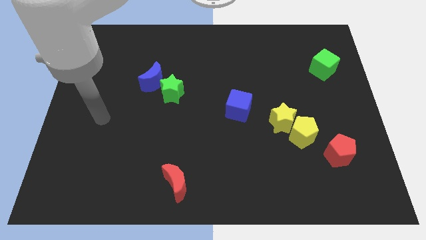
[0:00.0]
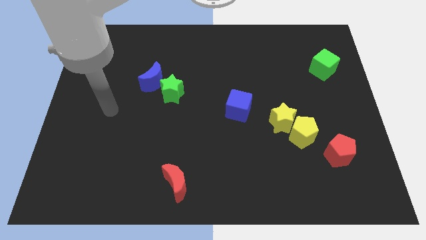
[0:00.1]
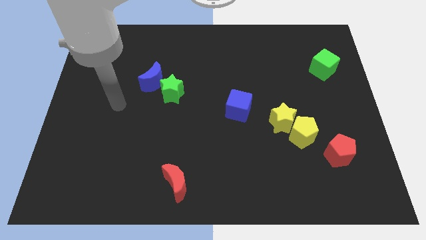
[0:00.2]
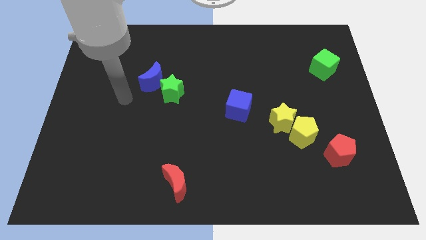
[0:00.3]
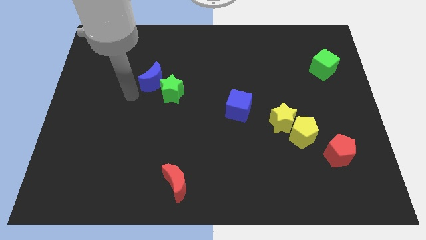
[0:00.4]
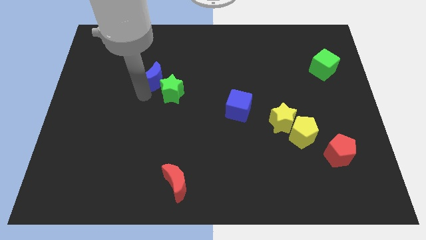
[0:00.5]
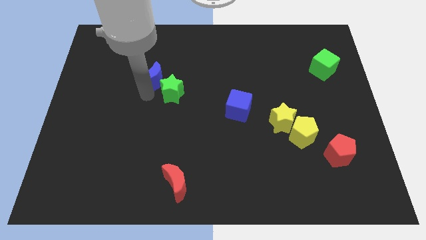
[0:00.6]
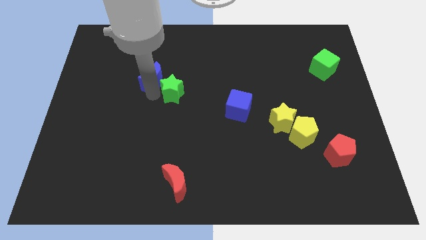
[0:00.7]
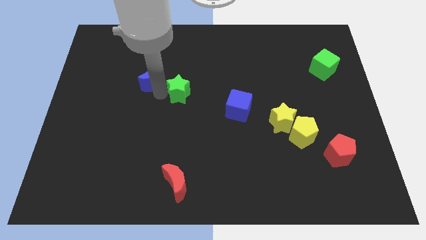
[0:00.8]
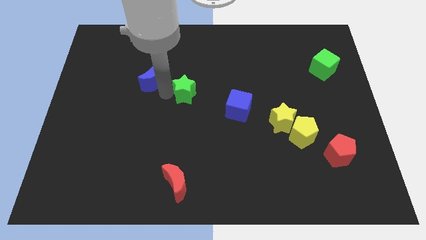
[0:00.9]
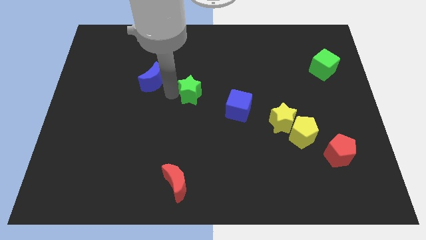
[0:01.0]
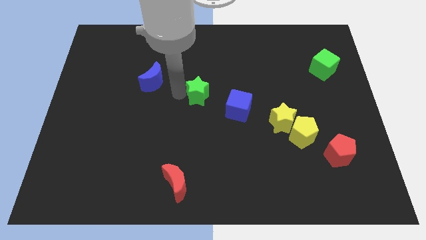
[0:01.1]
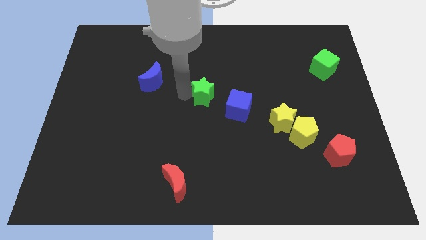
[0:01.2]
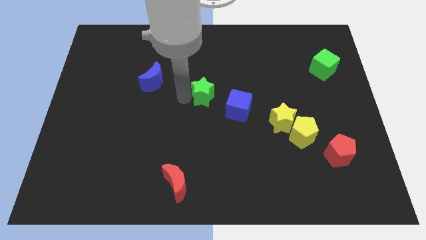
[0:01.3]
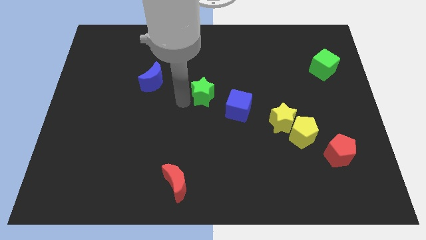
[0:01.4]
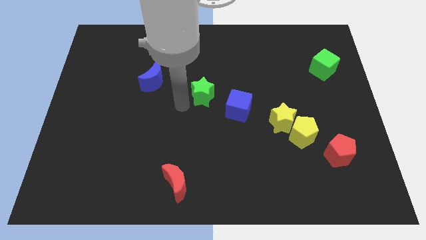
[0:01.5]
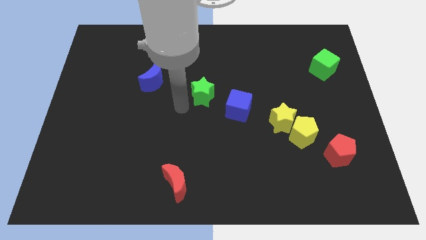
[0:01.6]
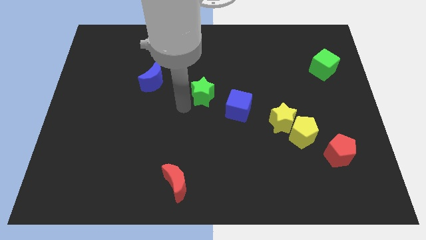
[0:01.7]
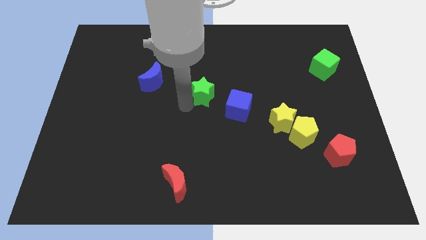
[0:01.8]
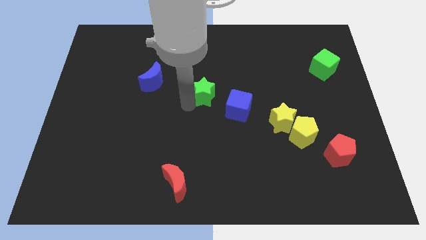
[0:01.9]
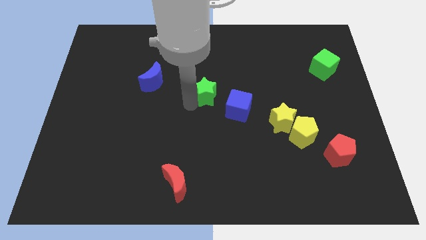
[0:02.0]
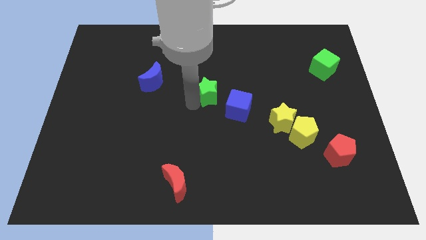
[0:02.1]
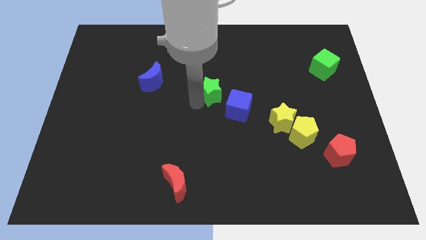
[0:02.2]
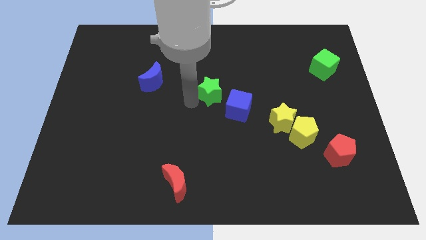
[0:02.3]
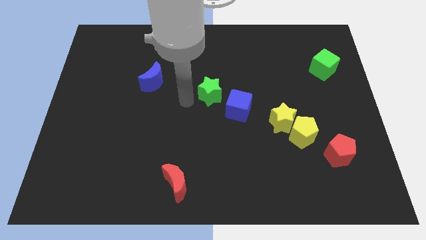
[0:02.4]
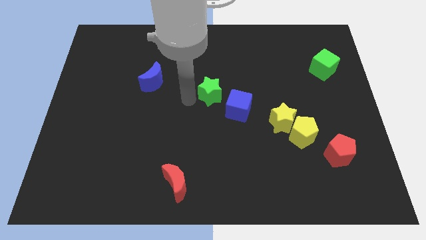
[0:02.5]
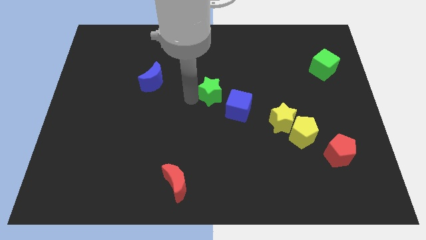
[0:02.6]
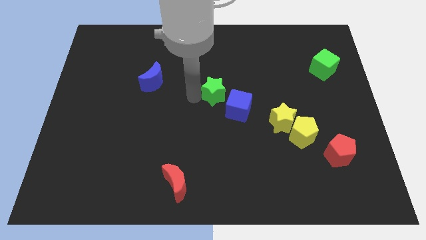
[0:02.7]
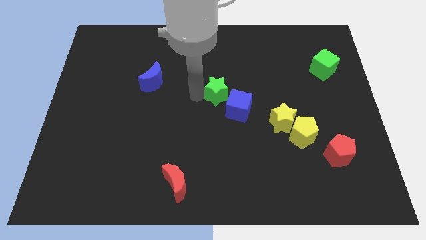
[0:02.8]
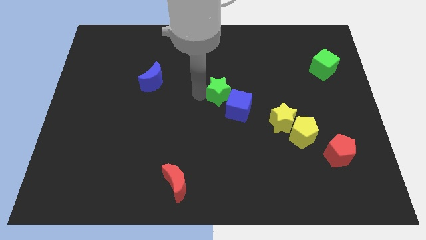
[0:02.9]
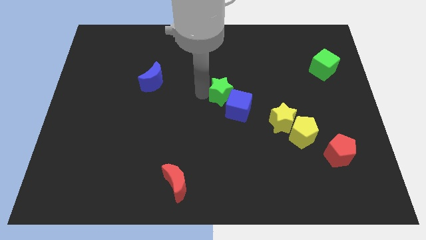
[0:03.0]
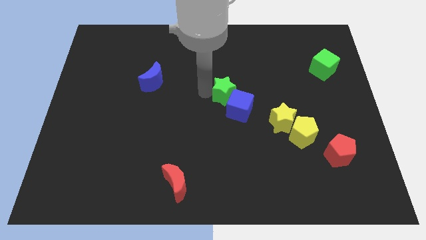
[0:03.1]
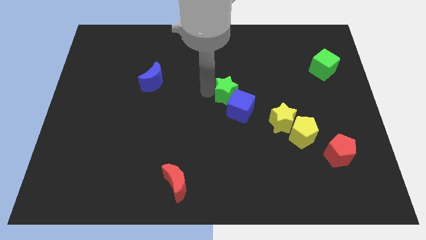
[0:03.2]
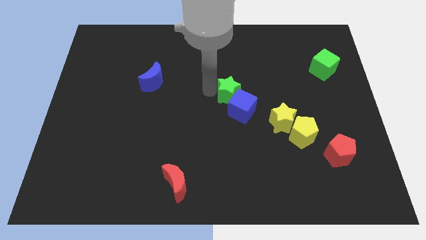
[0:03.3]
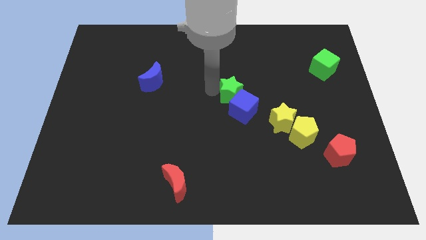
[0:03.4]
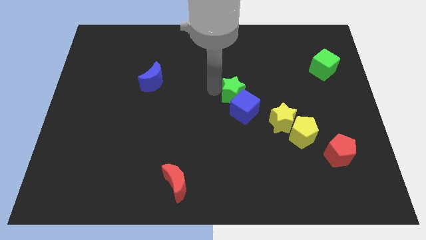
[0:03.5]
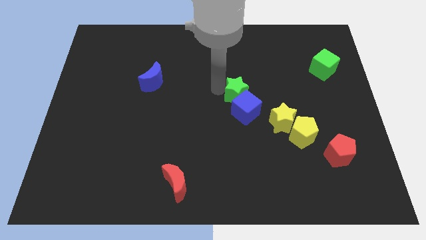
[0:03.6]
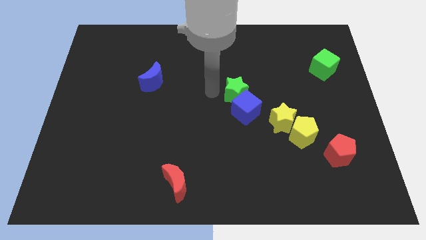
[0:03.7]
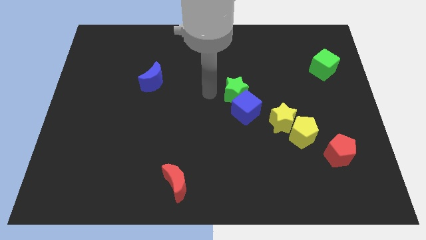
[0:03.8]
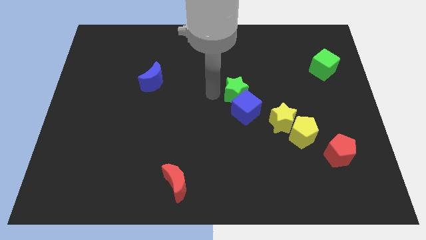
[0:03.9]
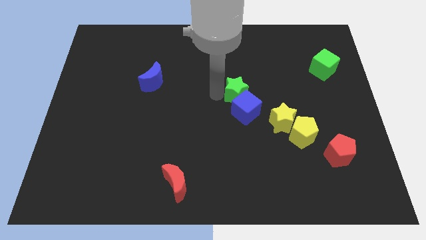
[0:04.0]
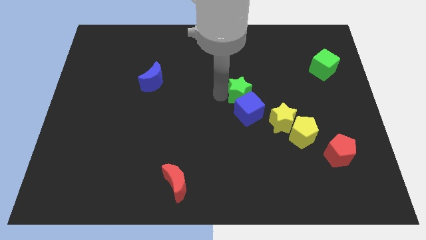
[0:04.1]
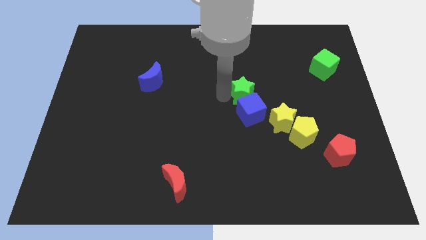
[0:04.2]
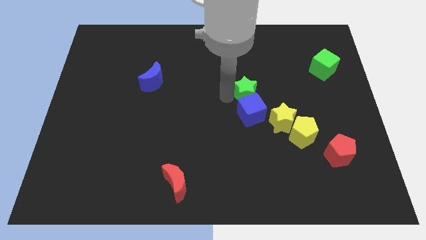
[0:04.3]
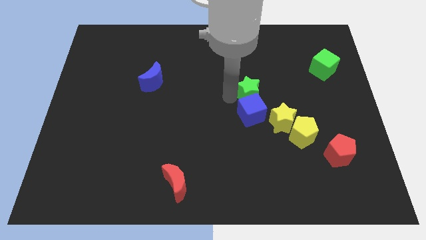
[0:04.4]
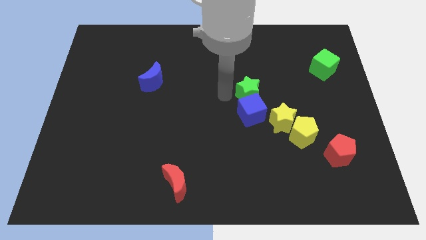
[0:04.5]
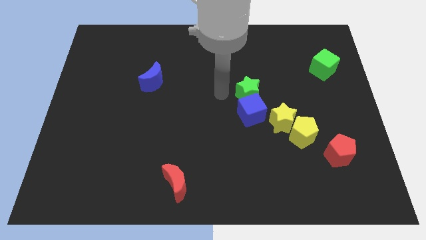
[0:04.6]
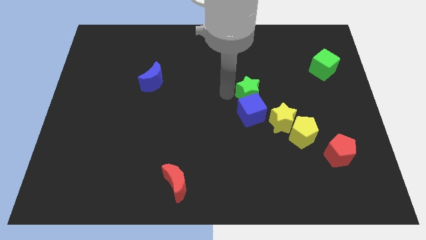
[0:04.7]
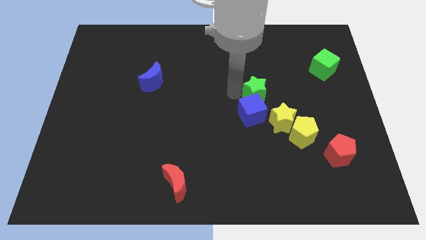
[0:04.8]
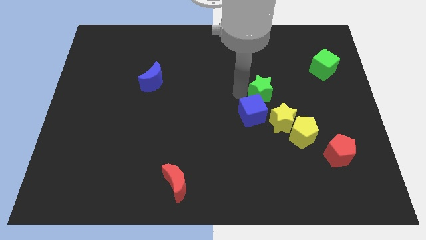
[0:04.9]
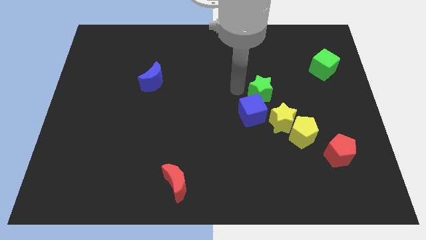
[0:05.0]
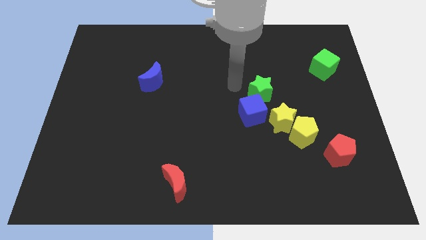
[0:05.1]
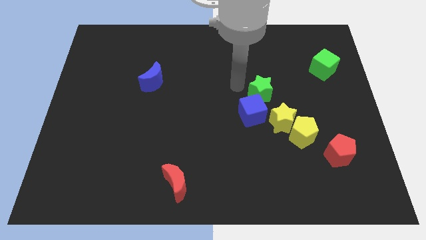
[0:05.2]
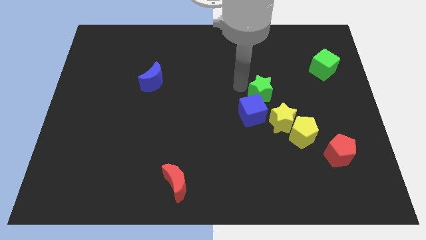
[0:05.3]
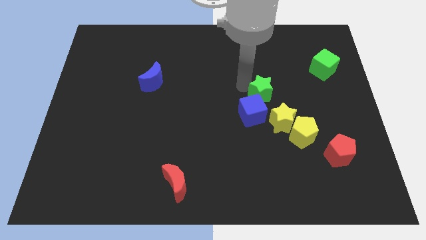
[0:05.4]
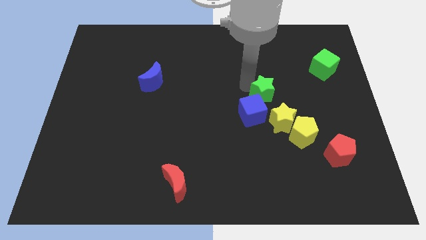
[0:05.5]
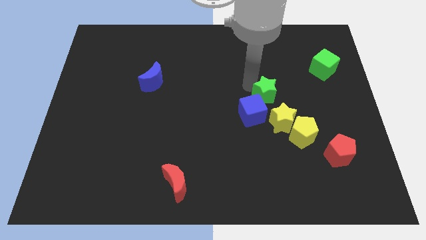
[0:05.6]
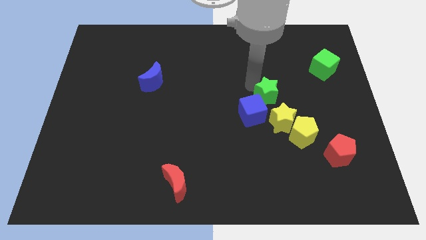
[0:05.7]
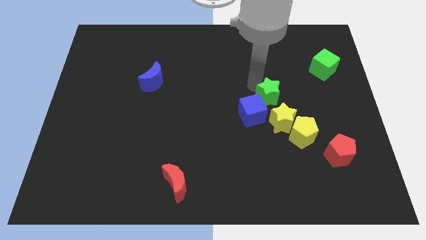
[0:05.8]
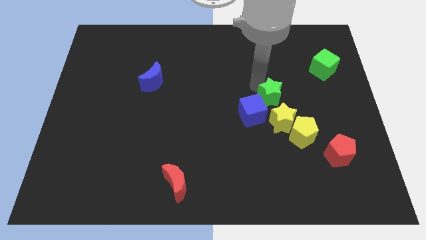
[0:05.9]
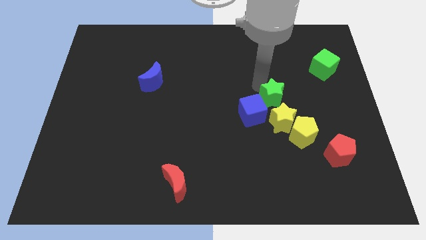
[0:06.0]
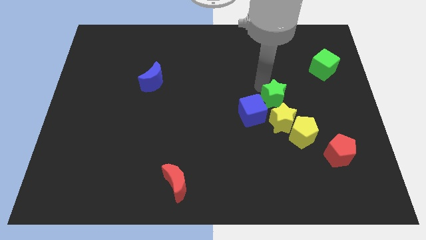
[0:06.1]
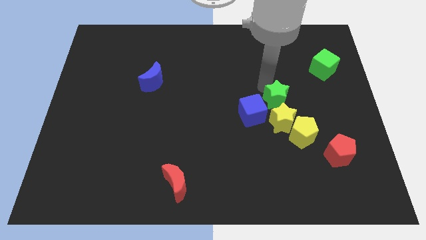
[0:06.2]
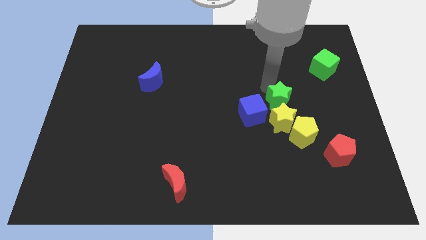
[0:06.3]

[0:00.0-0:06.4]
slide the green star diagonally up and to the right of the yellow star

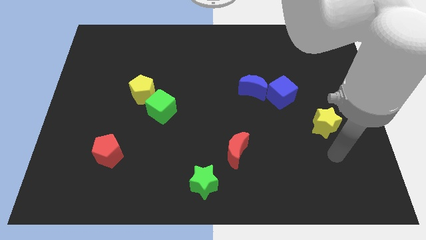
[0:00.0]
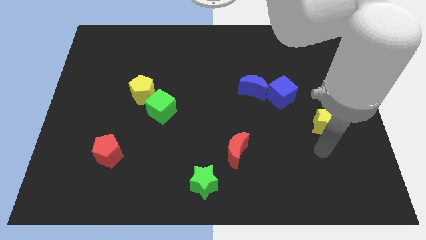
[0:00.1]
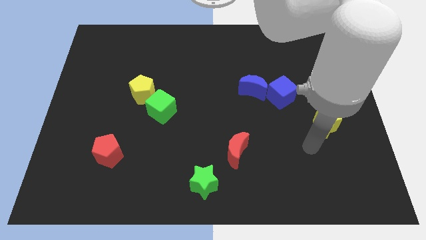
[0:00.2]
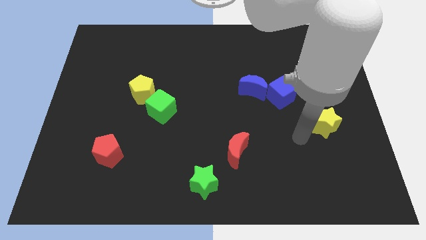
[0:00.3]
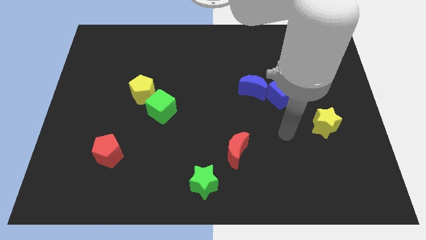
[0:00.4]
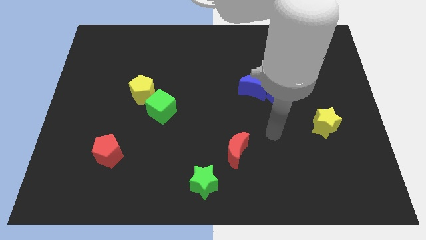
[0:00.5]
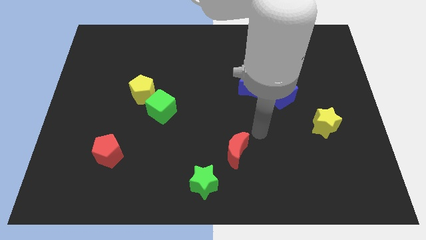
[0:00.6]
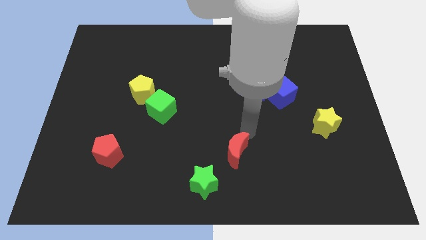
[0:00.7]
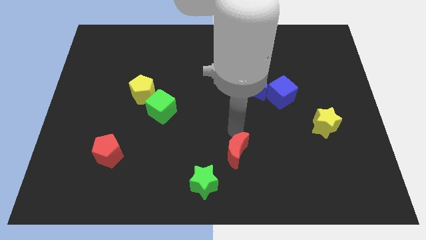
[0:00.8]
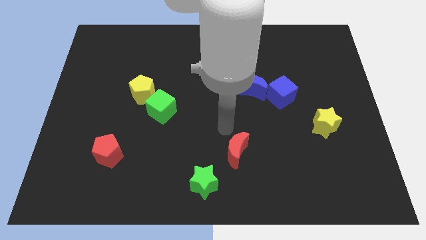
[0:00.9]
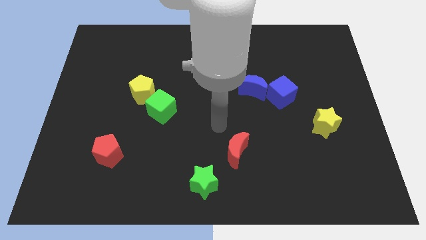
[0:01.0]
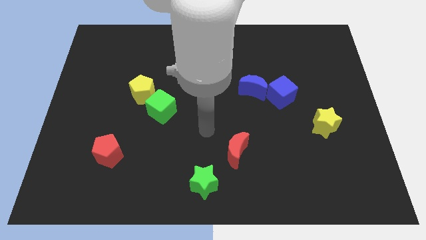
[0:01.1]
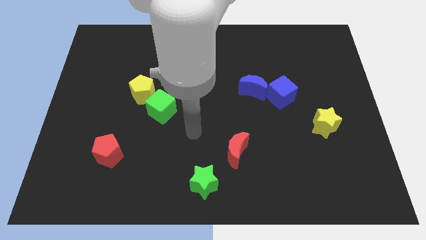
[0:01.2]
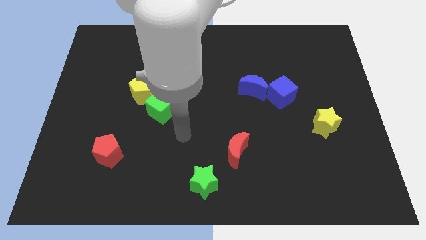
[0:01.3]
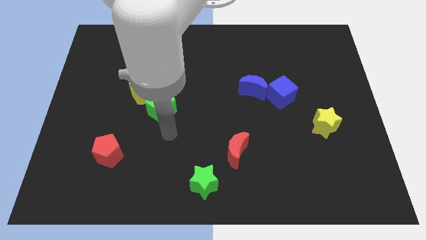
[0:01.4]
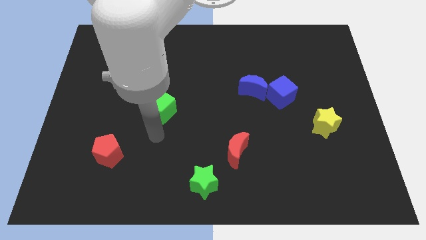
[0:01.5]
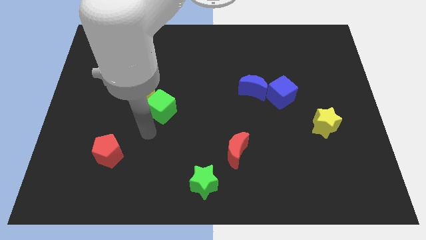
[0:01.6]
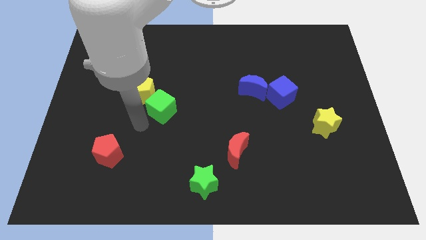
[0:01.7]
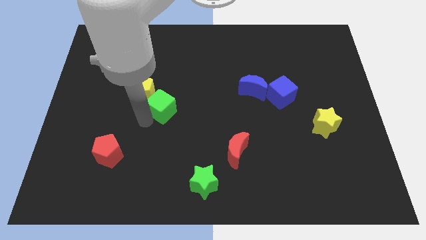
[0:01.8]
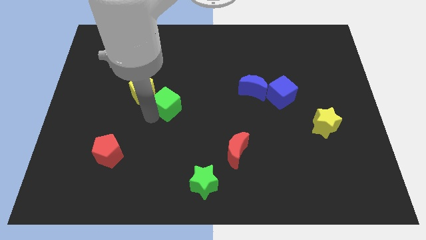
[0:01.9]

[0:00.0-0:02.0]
move the green cube just right of the yellow pentagon
